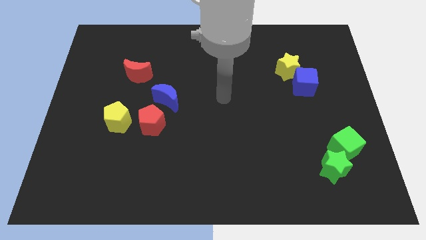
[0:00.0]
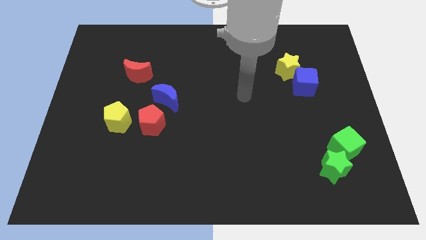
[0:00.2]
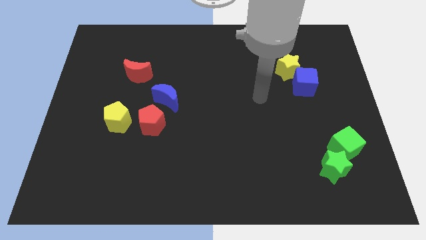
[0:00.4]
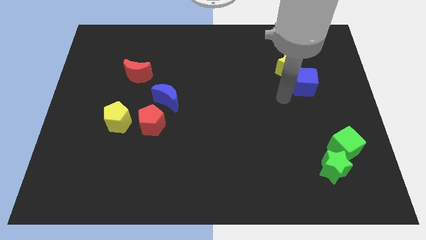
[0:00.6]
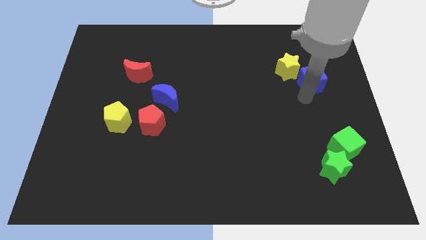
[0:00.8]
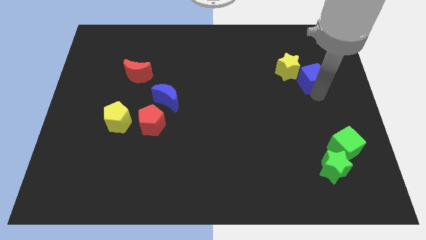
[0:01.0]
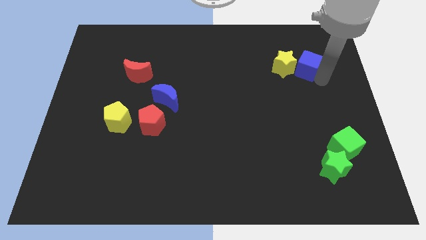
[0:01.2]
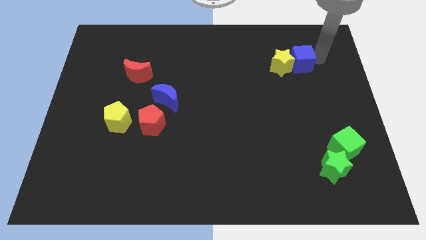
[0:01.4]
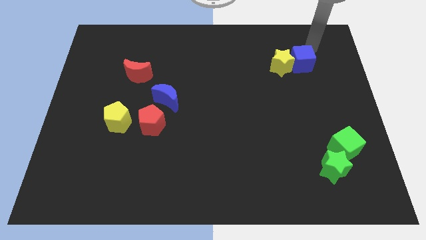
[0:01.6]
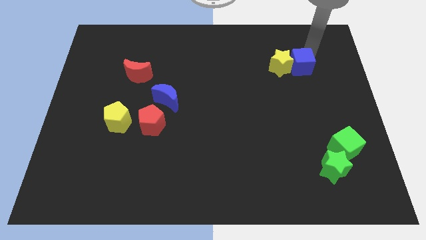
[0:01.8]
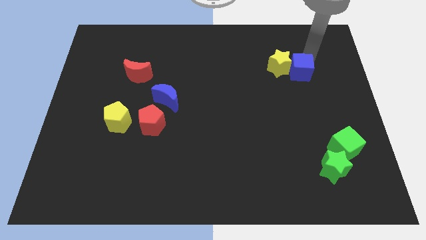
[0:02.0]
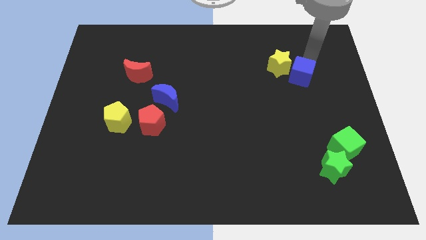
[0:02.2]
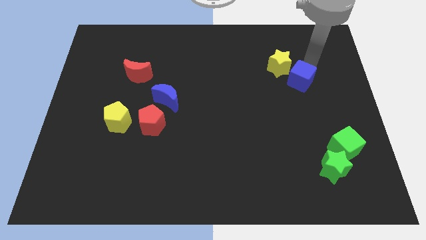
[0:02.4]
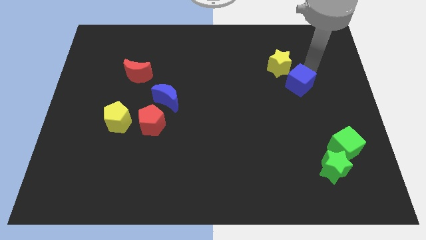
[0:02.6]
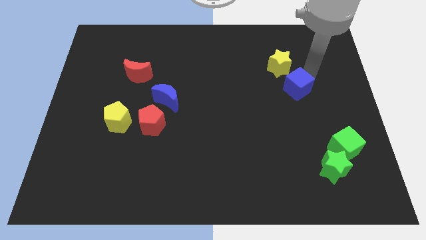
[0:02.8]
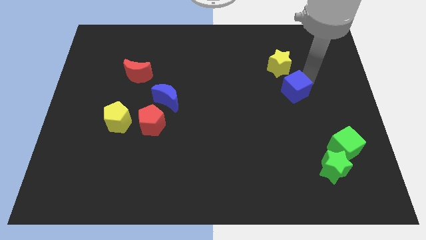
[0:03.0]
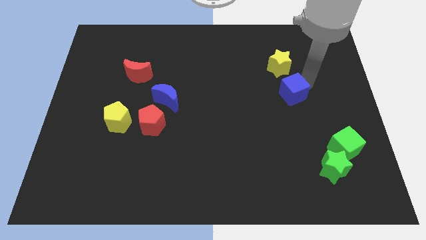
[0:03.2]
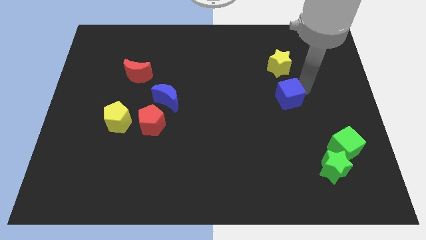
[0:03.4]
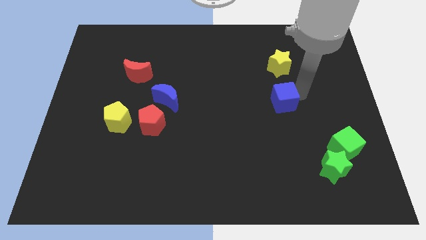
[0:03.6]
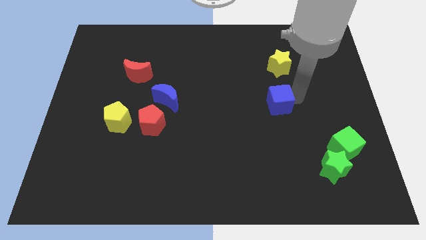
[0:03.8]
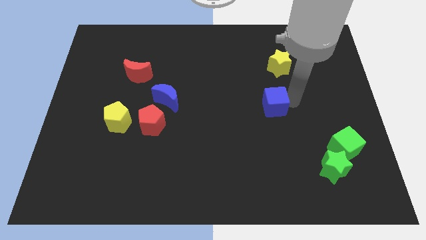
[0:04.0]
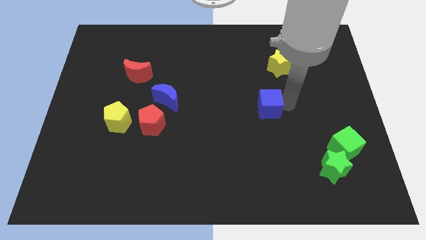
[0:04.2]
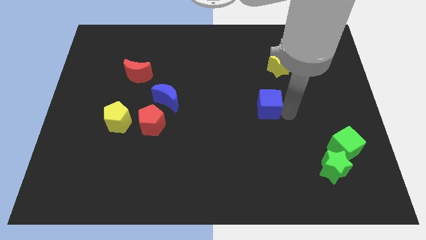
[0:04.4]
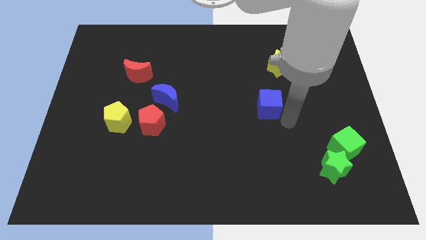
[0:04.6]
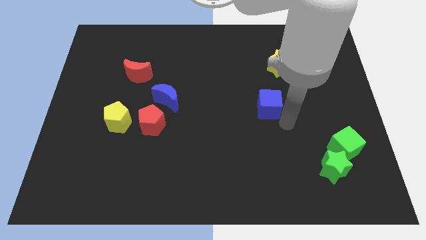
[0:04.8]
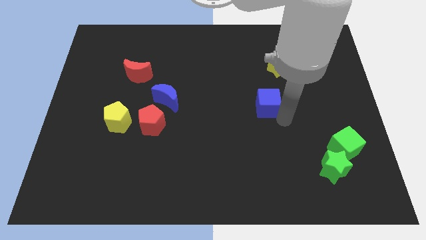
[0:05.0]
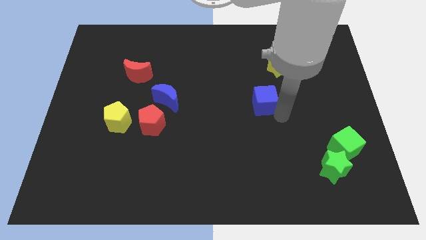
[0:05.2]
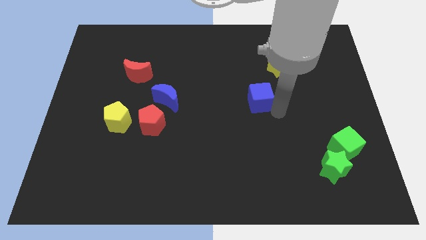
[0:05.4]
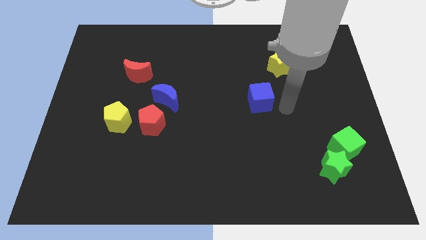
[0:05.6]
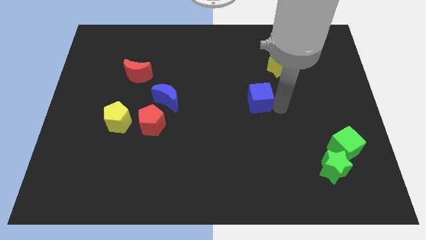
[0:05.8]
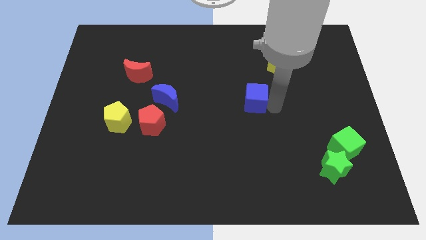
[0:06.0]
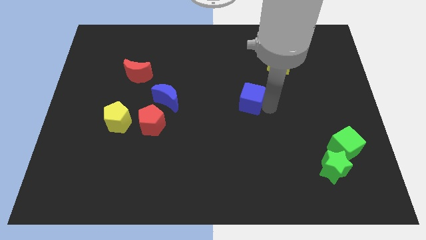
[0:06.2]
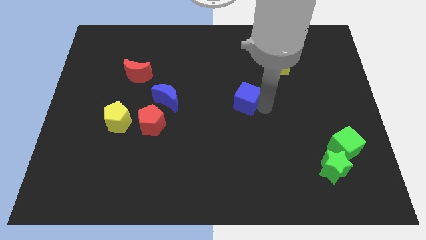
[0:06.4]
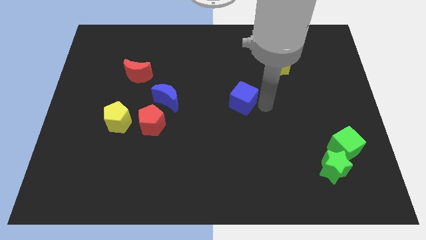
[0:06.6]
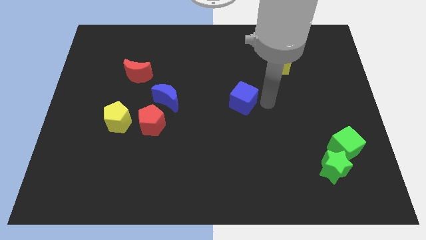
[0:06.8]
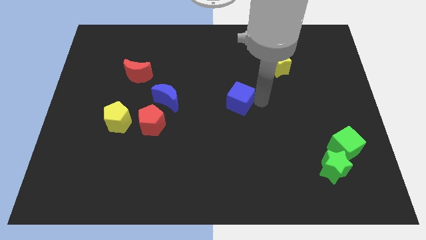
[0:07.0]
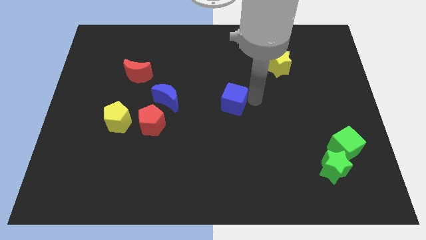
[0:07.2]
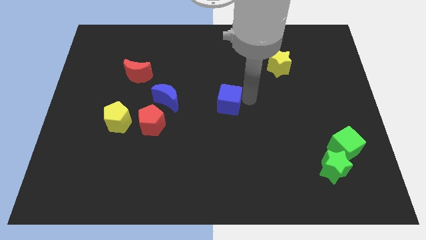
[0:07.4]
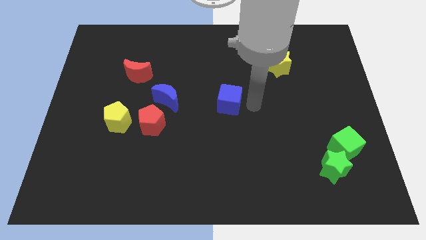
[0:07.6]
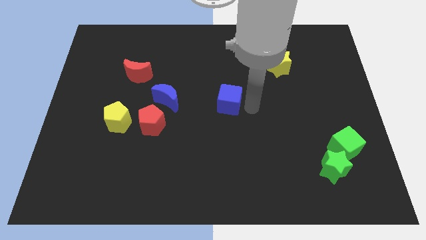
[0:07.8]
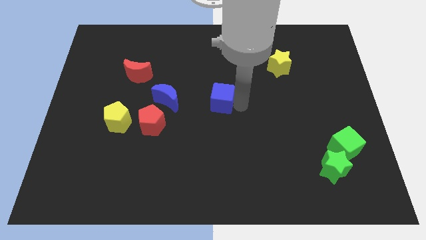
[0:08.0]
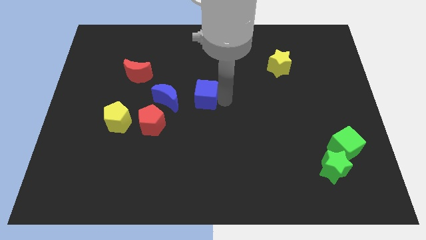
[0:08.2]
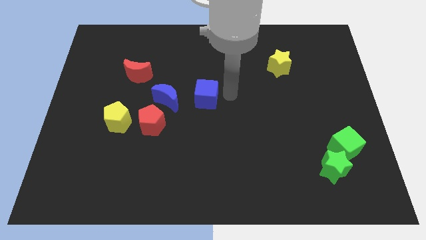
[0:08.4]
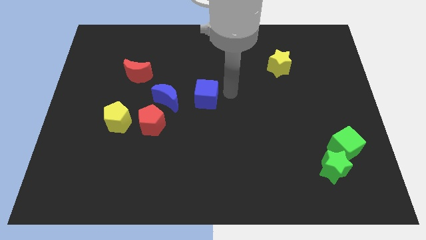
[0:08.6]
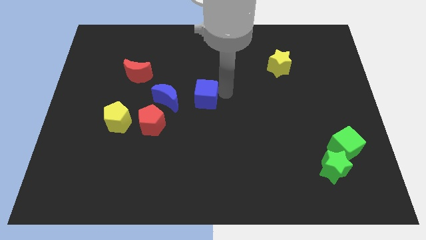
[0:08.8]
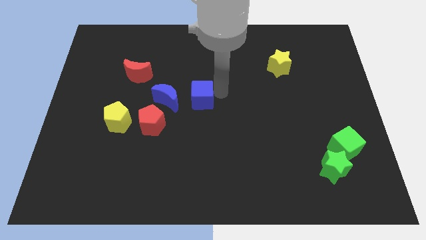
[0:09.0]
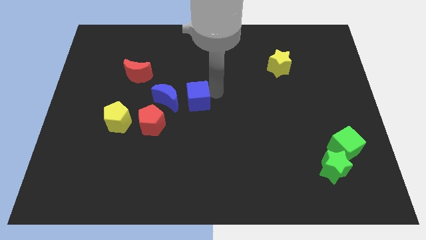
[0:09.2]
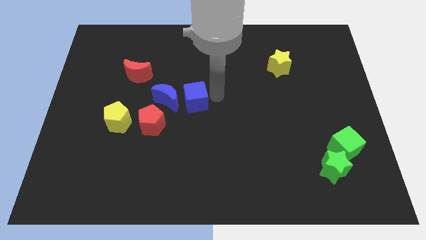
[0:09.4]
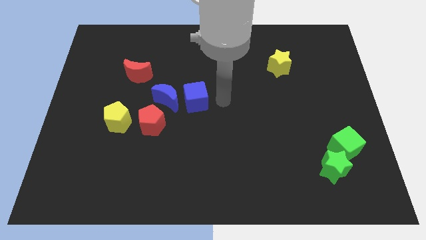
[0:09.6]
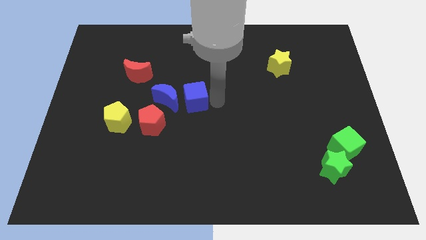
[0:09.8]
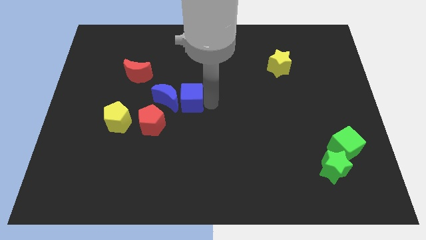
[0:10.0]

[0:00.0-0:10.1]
slide the blue cube next to the blue moon
